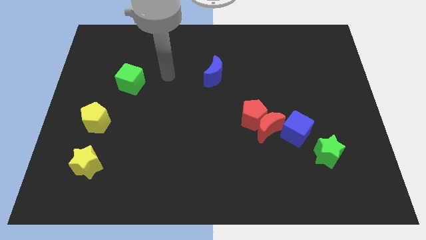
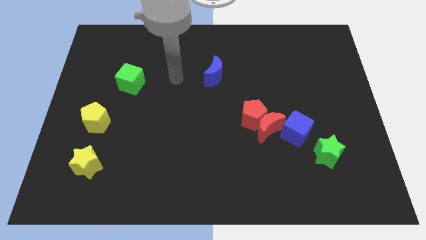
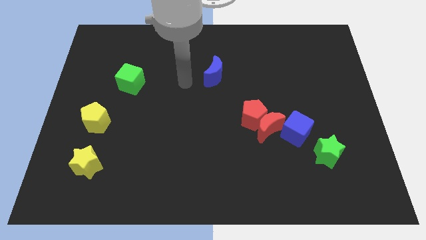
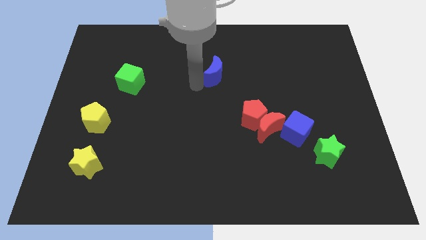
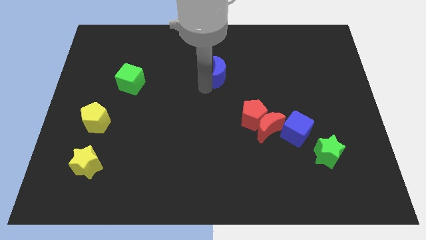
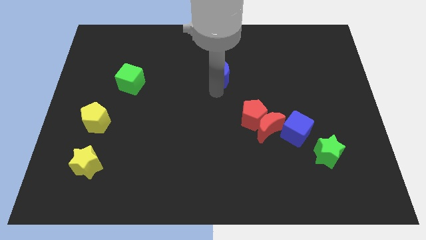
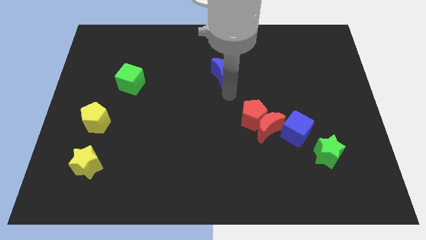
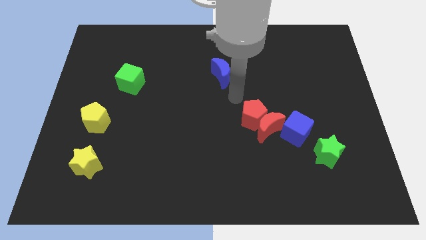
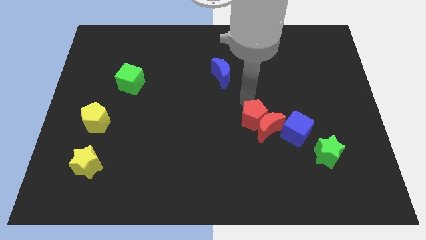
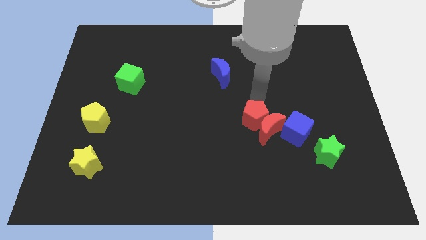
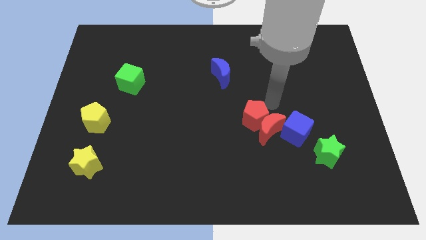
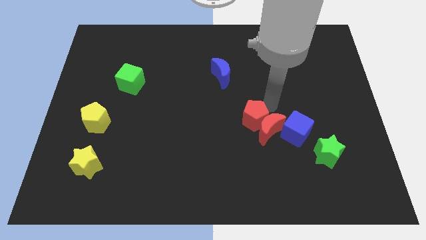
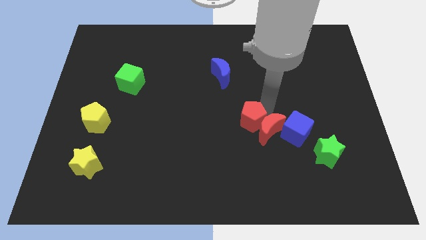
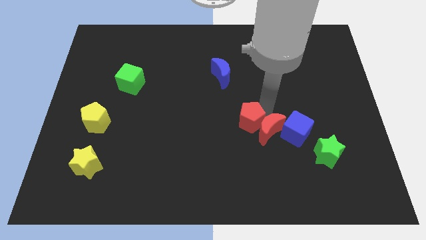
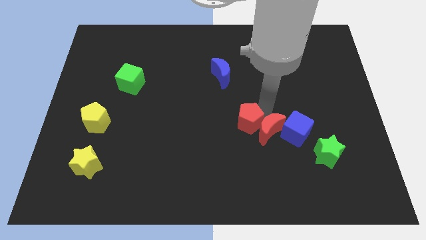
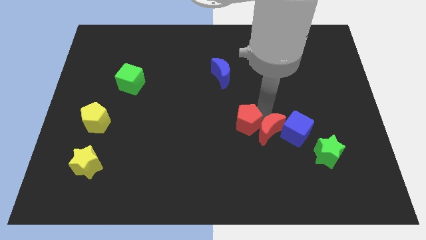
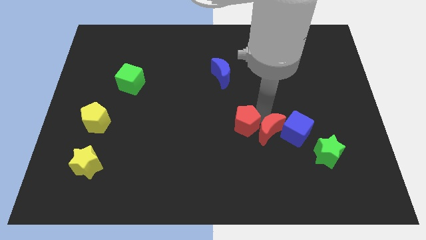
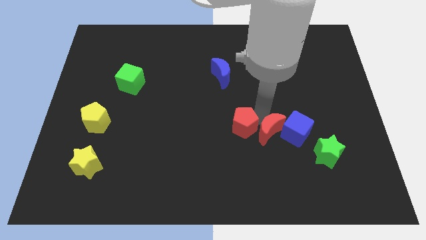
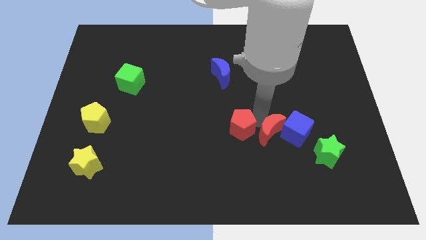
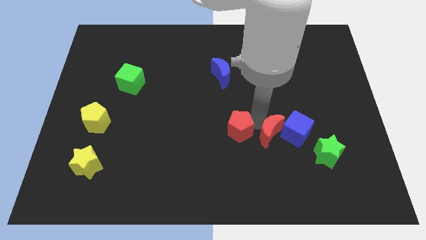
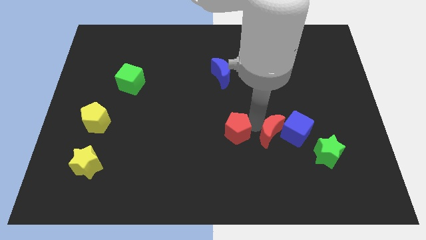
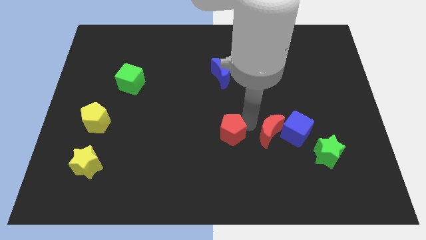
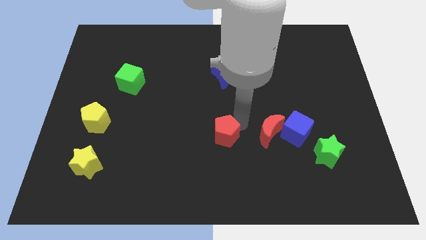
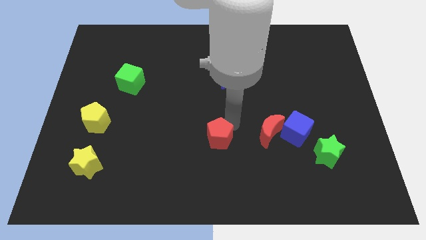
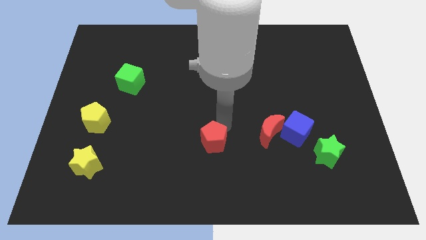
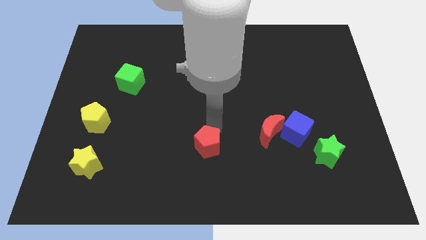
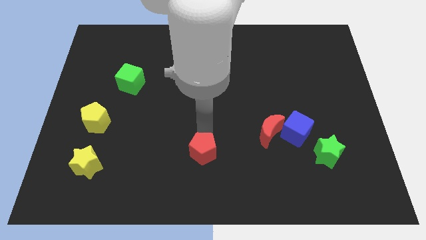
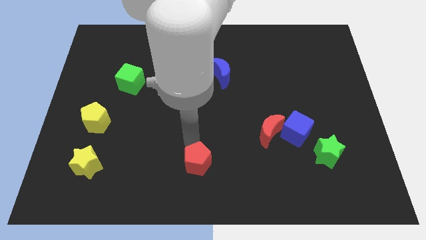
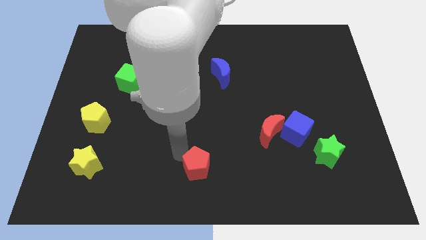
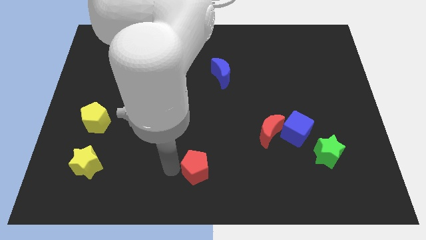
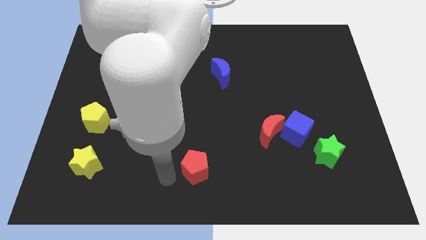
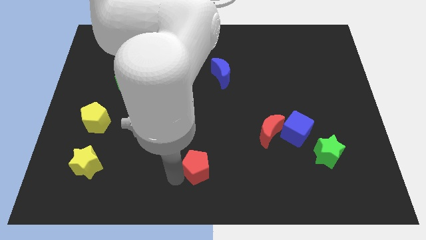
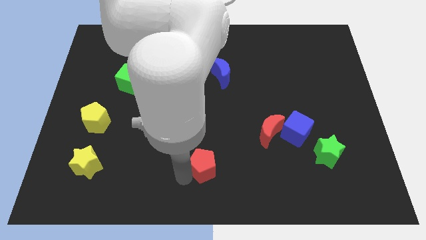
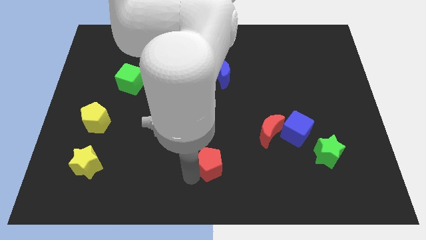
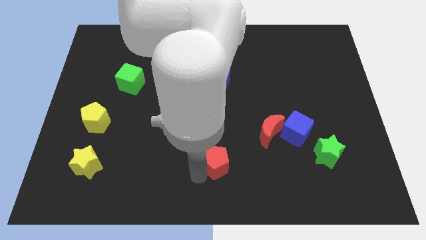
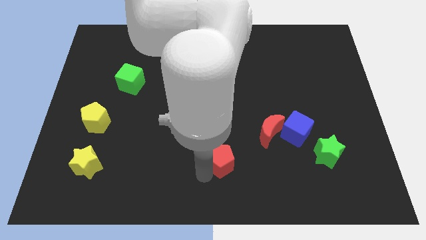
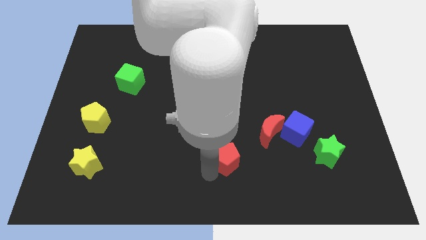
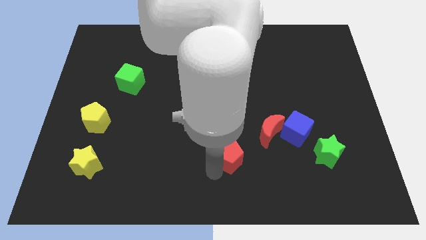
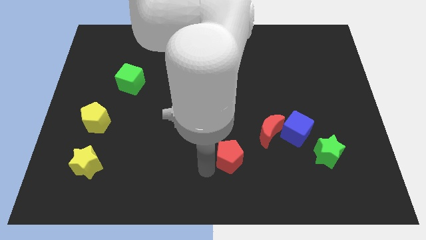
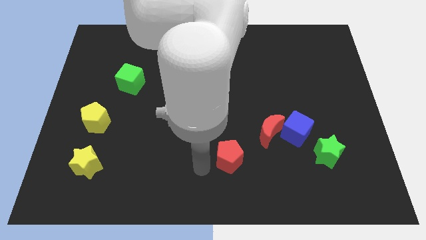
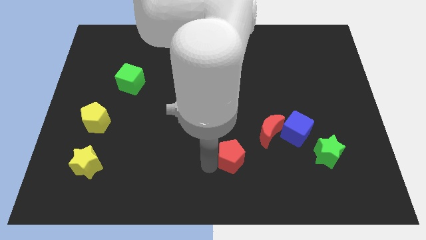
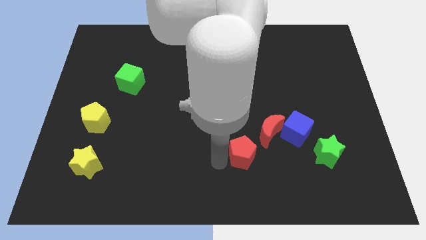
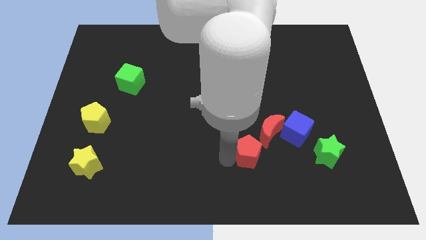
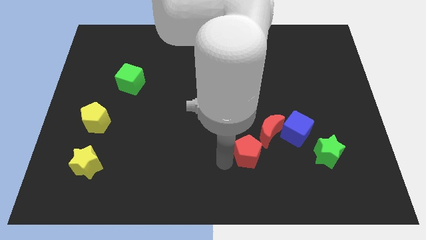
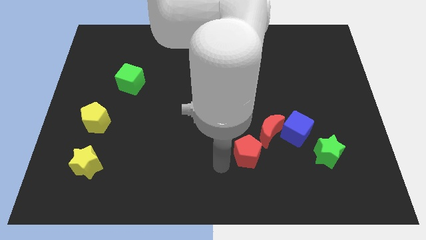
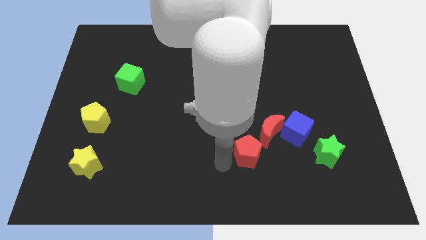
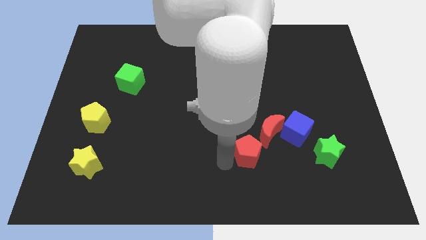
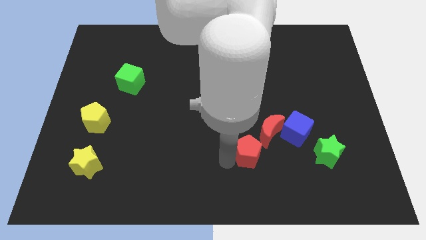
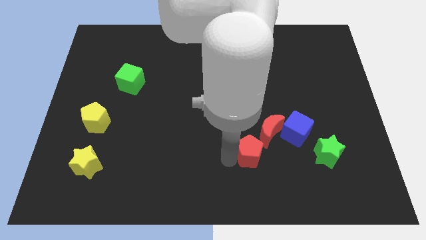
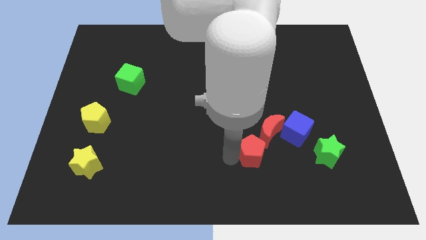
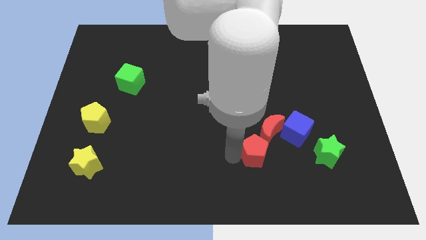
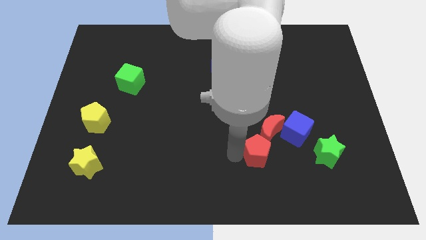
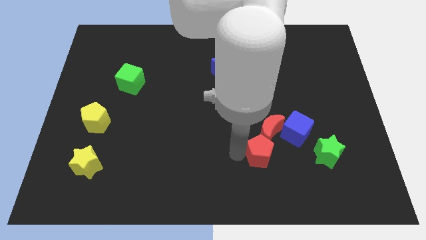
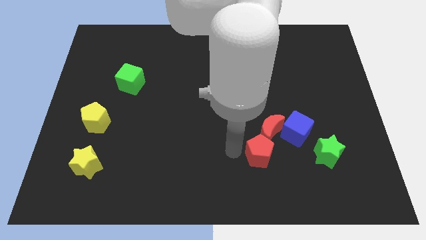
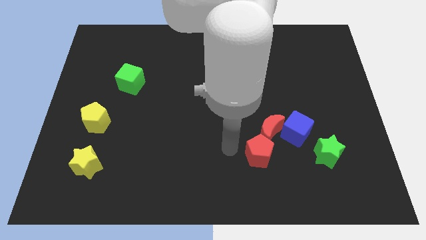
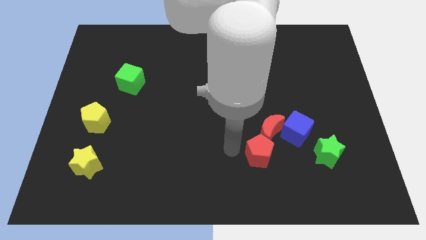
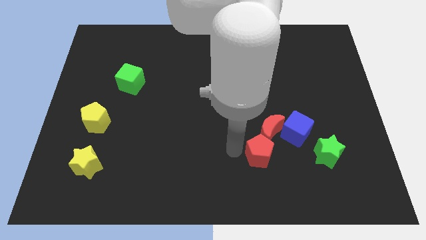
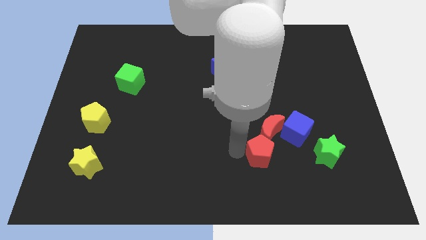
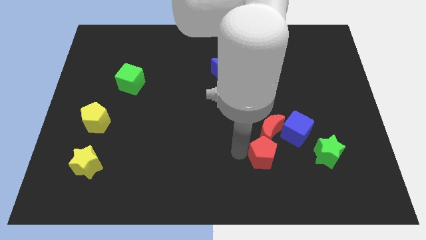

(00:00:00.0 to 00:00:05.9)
push the red pentagon downwards and then to the right a little

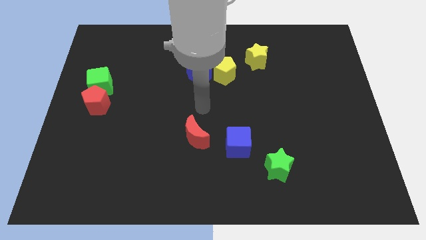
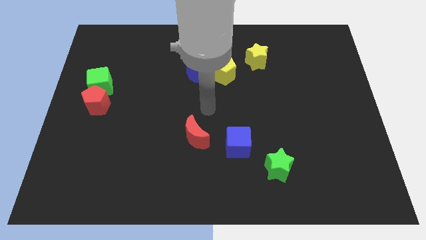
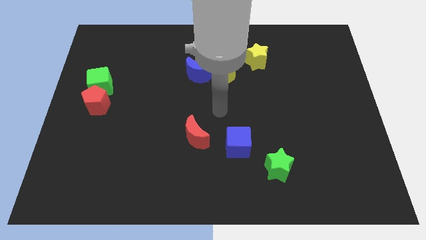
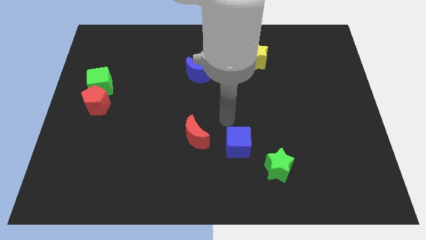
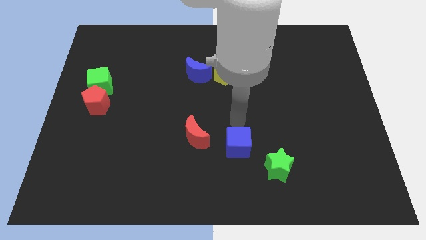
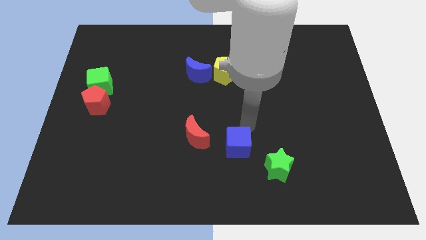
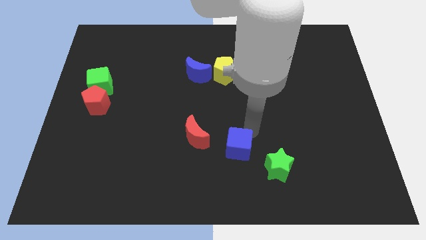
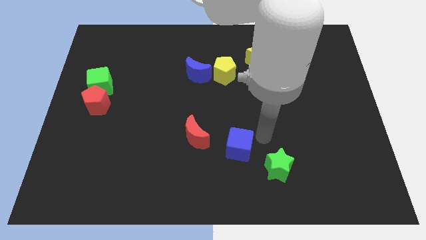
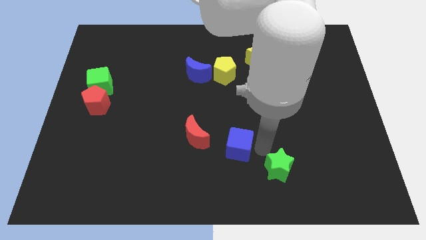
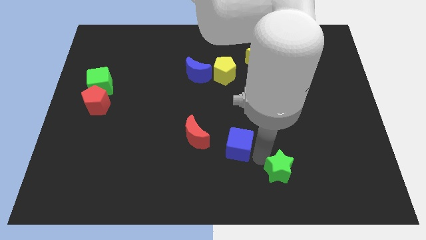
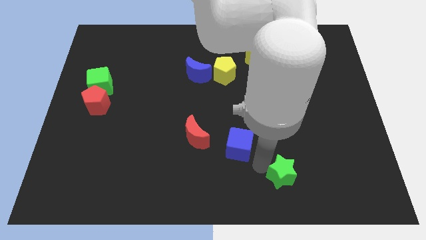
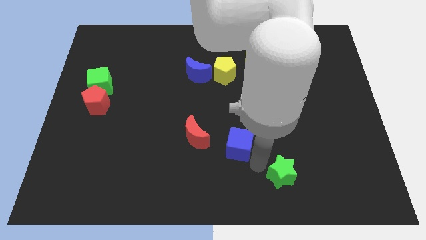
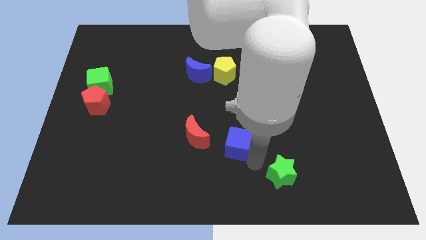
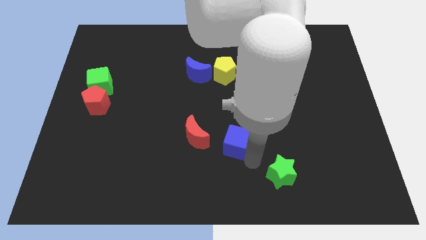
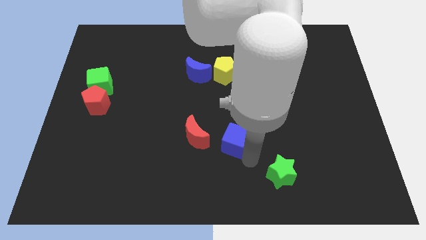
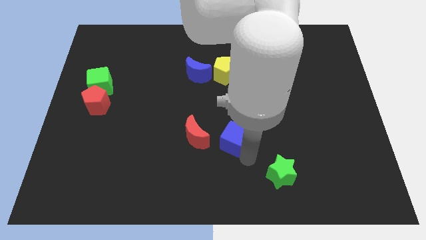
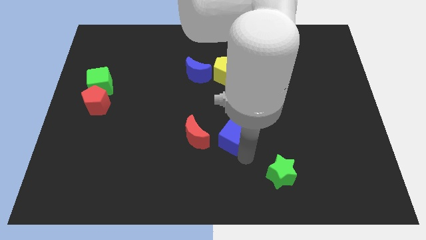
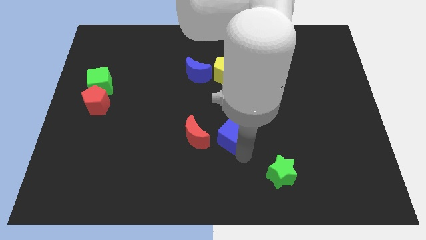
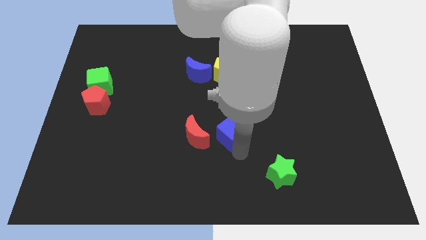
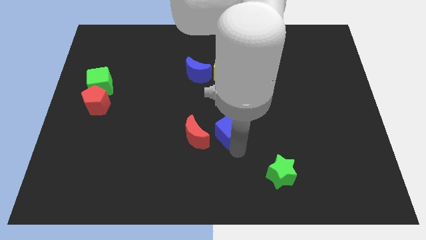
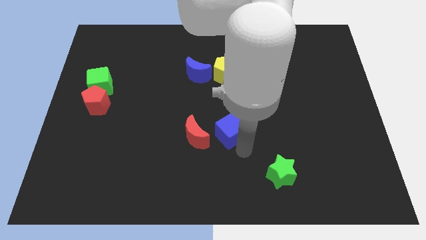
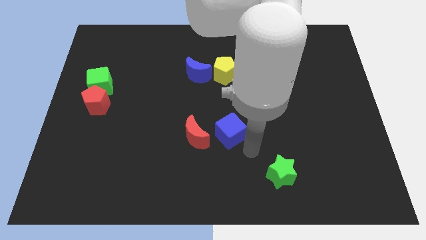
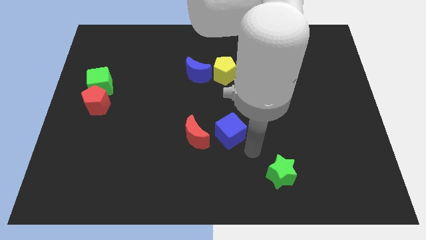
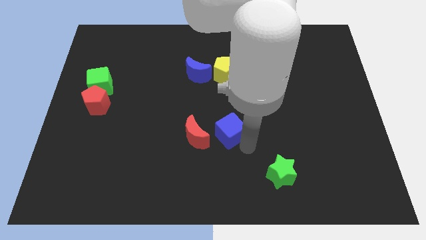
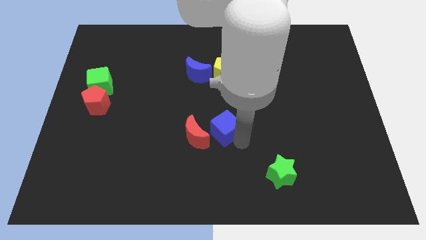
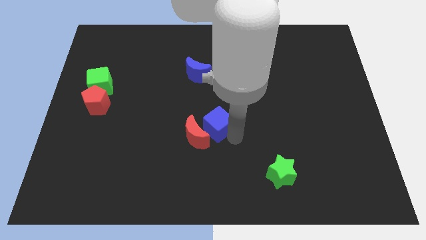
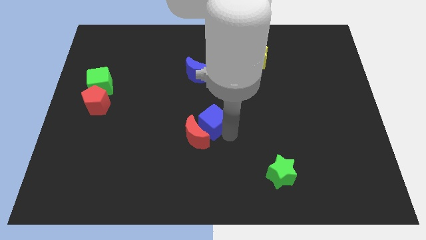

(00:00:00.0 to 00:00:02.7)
slightly slide the blue cube up and then to the left
